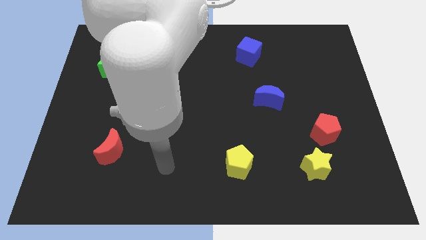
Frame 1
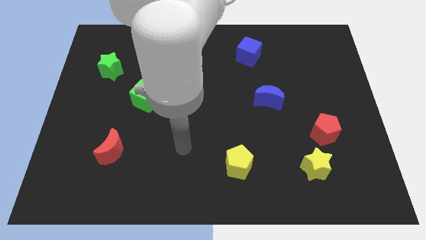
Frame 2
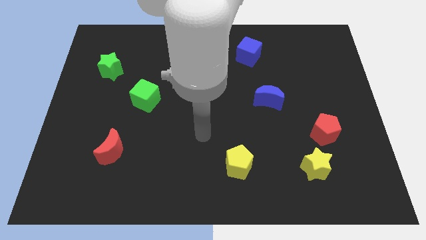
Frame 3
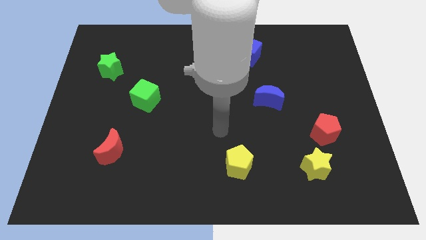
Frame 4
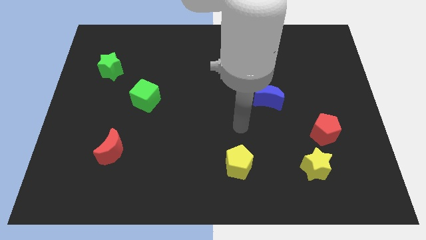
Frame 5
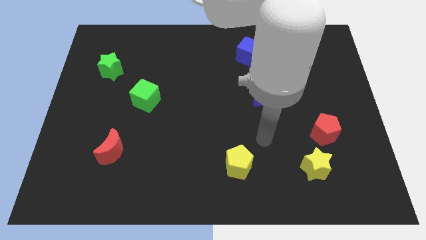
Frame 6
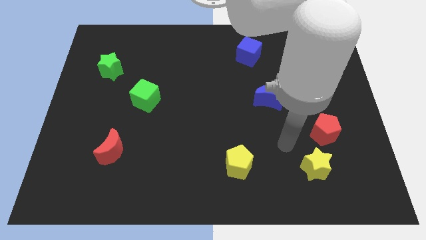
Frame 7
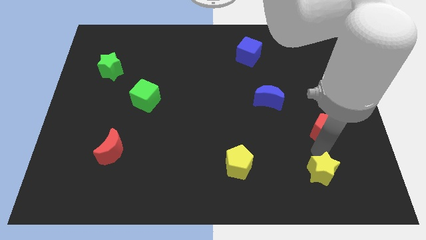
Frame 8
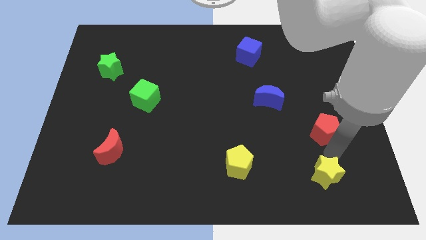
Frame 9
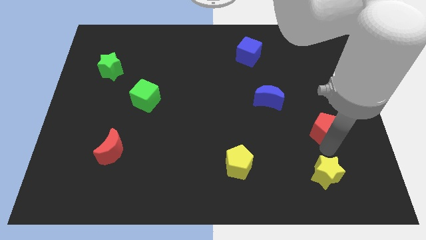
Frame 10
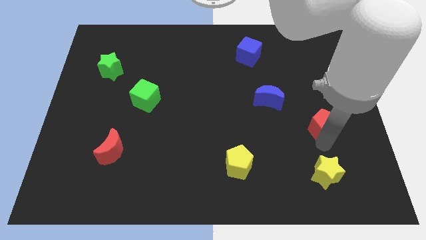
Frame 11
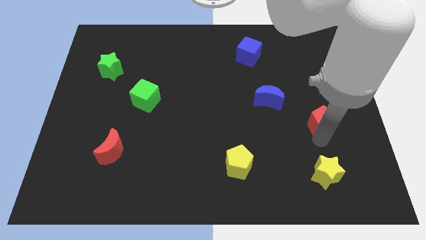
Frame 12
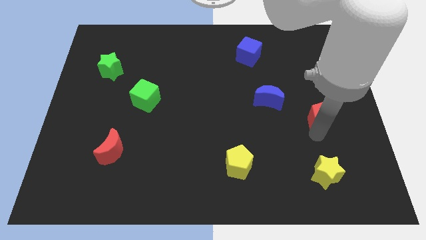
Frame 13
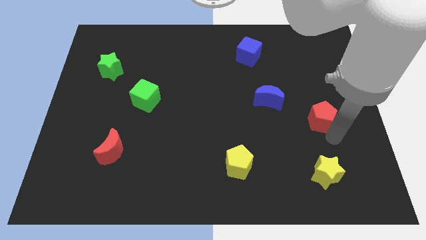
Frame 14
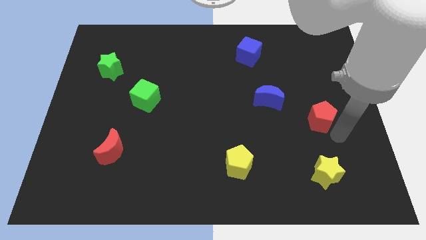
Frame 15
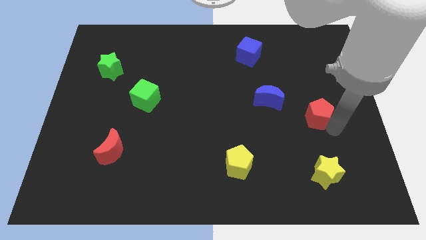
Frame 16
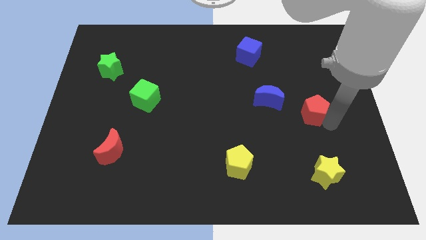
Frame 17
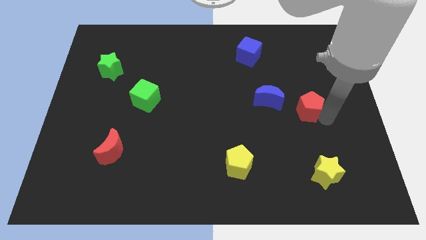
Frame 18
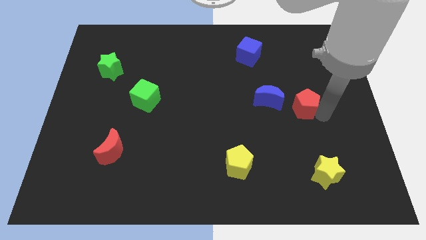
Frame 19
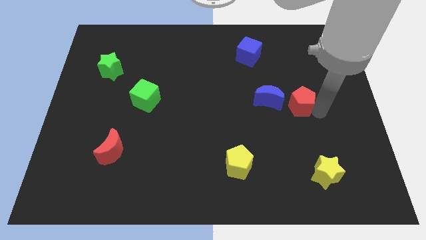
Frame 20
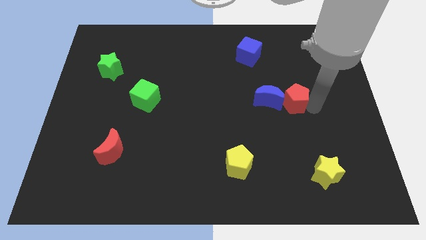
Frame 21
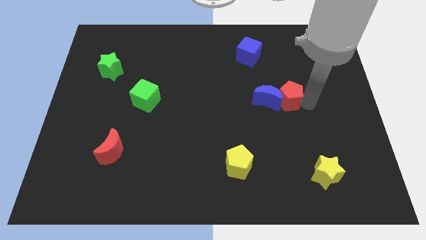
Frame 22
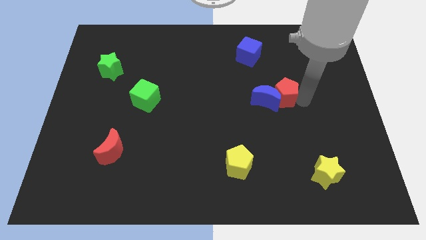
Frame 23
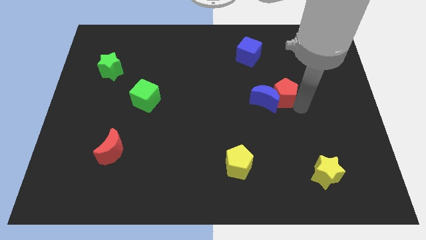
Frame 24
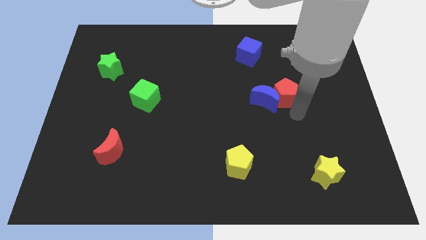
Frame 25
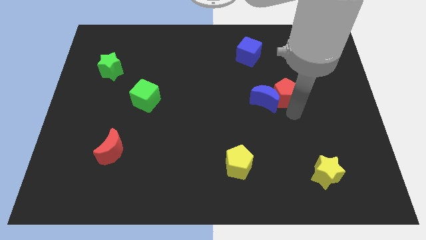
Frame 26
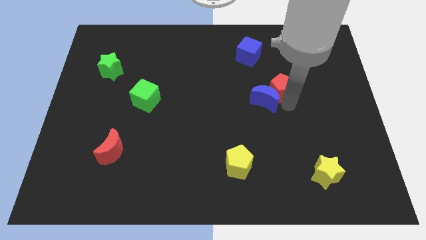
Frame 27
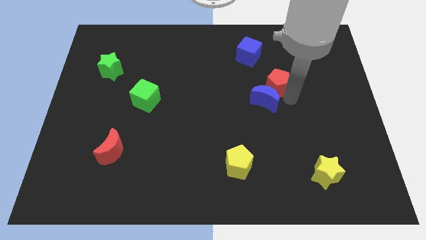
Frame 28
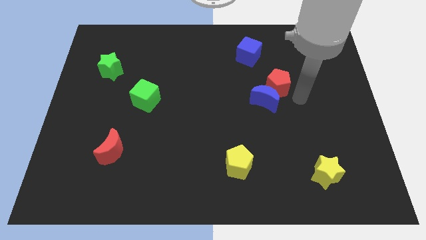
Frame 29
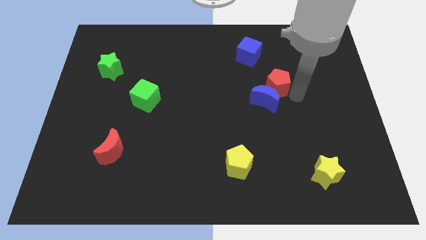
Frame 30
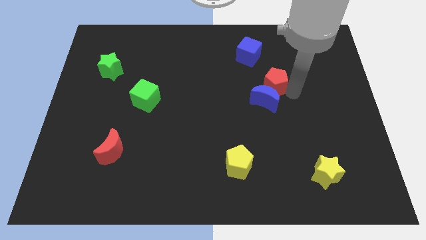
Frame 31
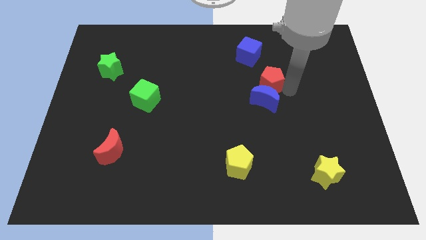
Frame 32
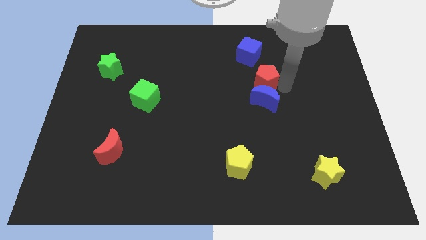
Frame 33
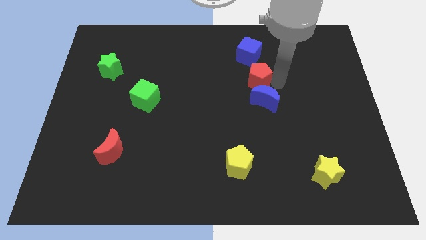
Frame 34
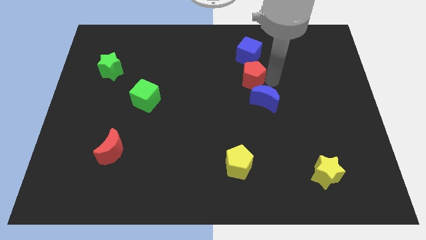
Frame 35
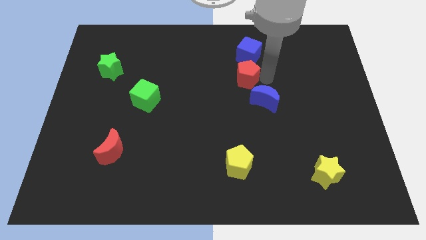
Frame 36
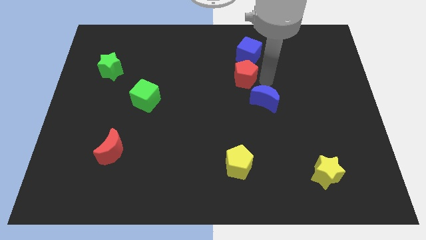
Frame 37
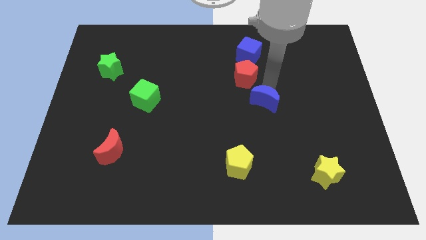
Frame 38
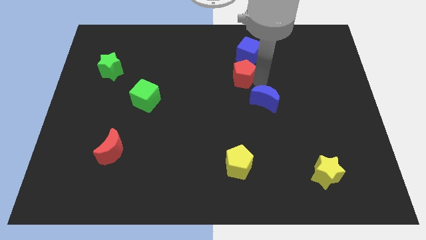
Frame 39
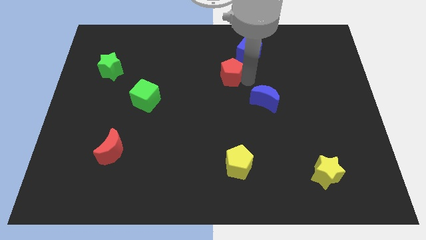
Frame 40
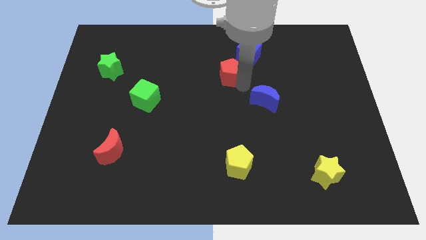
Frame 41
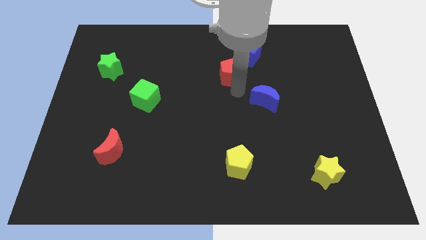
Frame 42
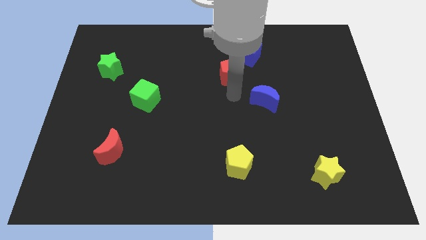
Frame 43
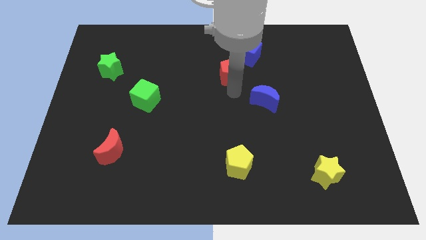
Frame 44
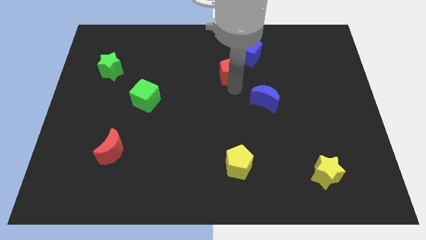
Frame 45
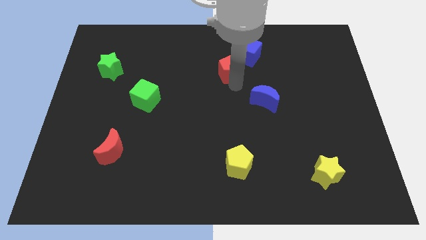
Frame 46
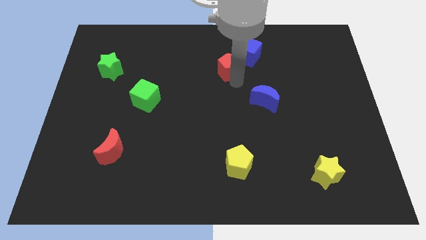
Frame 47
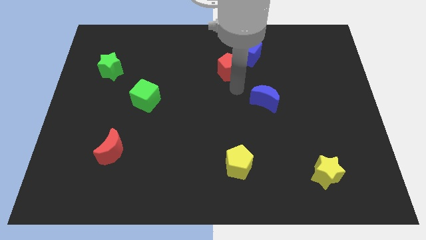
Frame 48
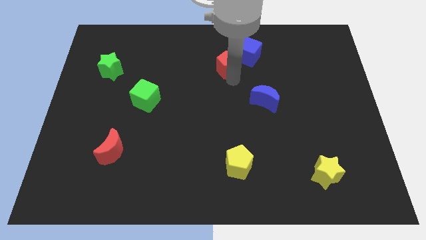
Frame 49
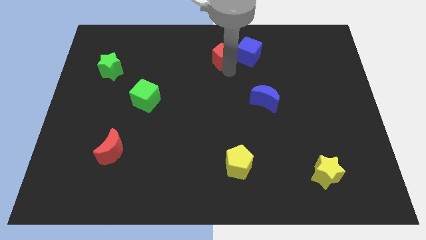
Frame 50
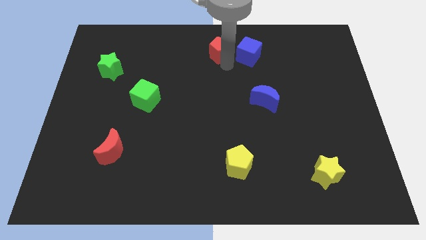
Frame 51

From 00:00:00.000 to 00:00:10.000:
put the red pentagon to the top side

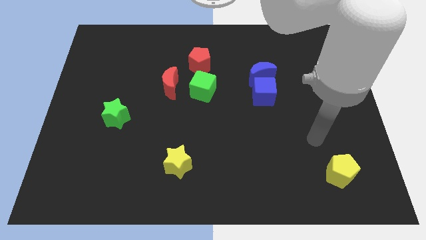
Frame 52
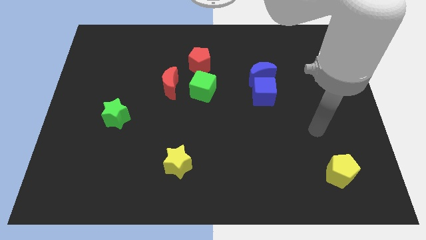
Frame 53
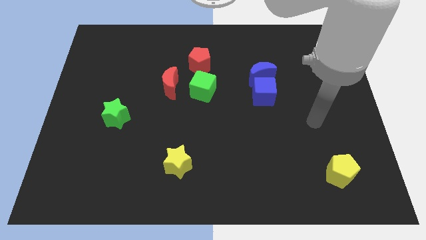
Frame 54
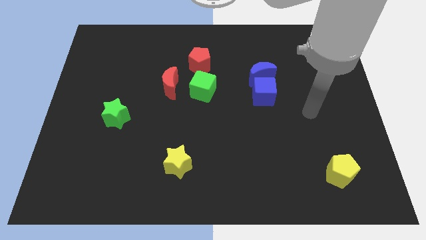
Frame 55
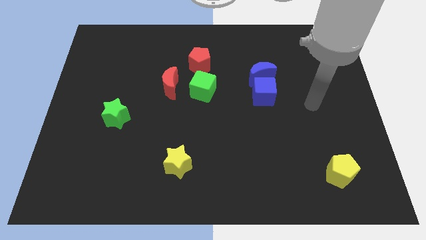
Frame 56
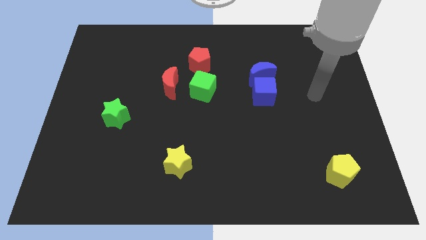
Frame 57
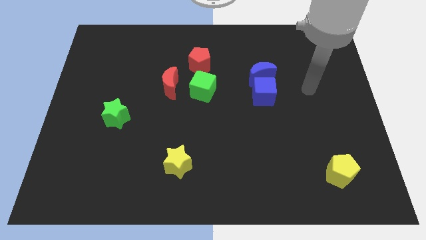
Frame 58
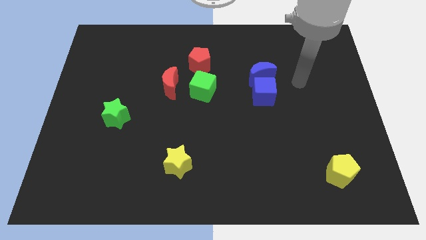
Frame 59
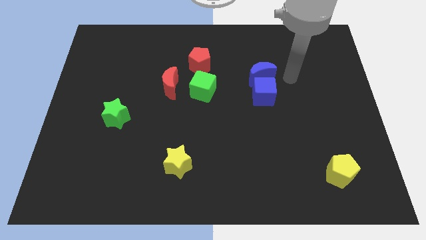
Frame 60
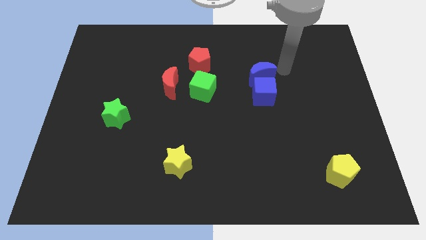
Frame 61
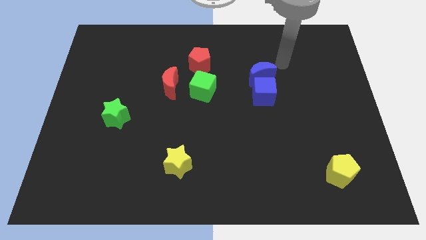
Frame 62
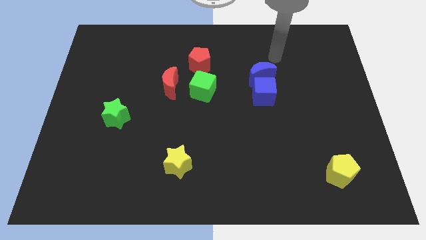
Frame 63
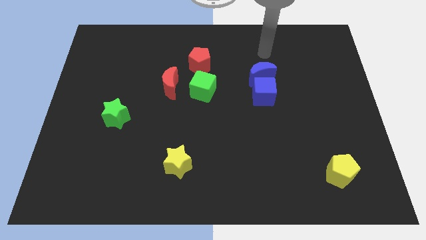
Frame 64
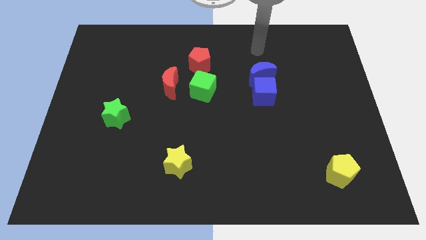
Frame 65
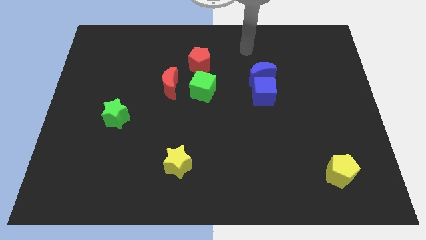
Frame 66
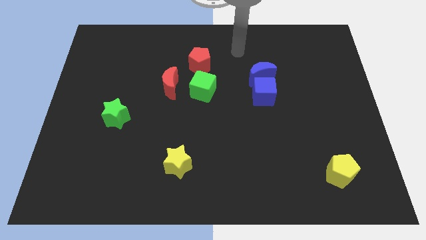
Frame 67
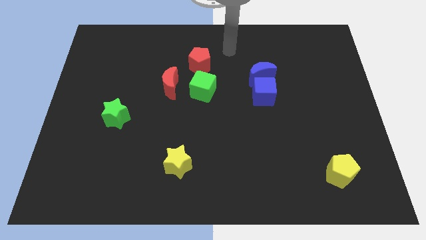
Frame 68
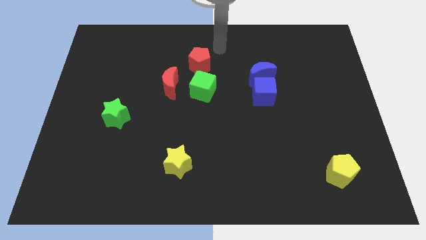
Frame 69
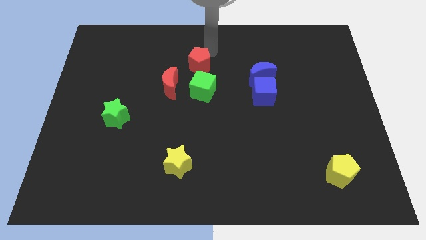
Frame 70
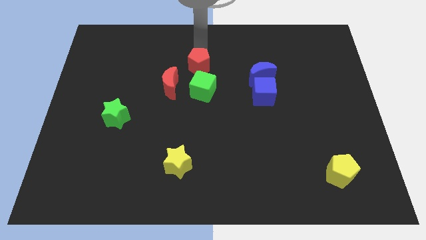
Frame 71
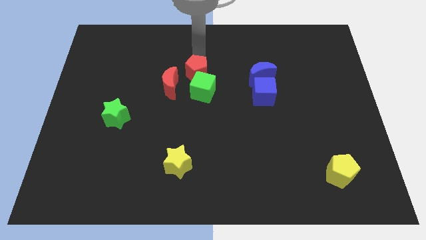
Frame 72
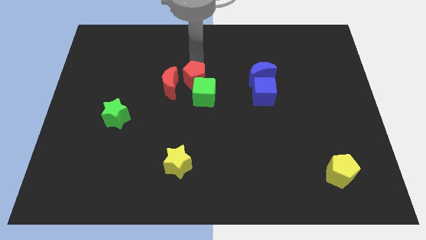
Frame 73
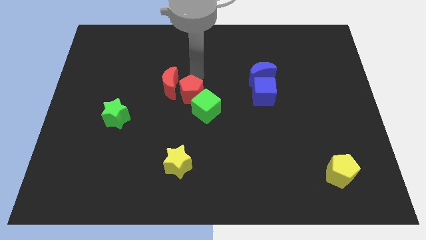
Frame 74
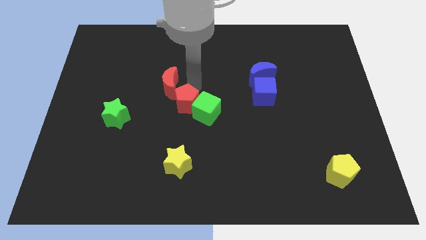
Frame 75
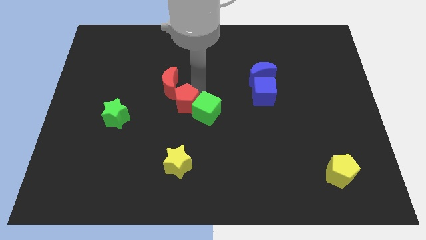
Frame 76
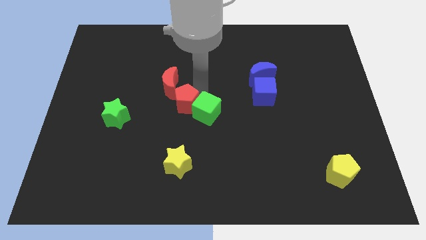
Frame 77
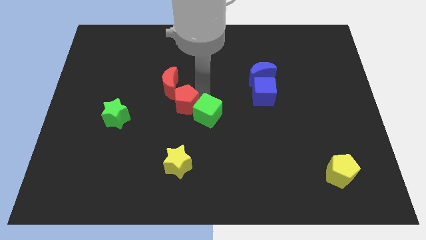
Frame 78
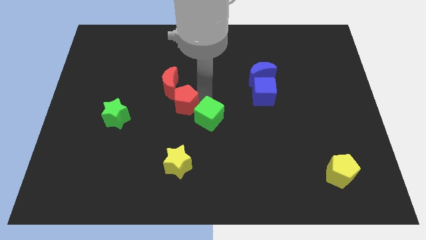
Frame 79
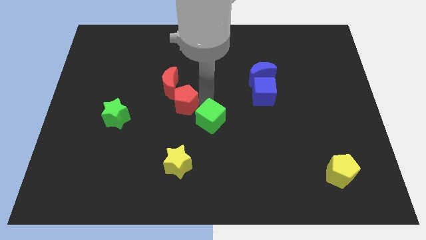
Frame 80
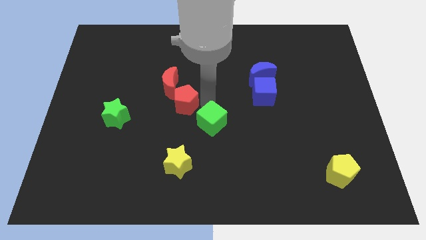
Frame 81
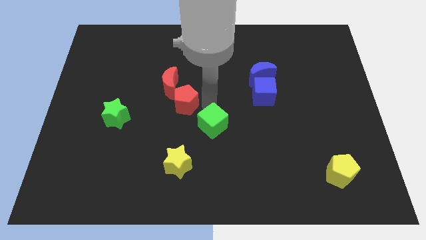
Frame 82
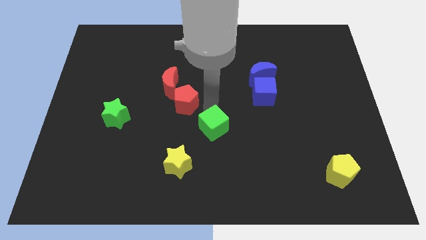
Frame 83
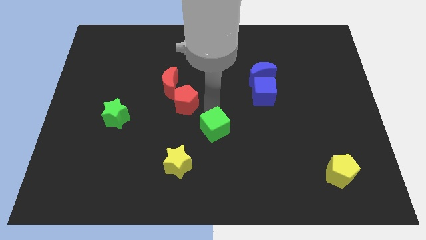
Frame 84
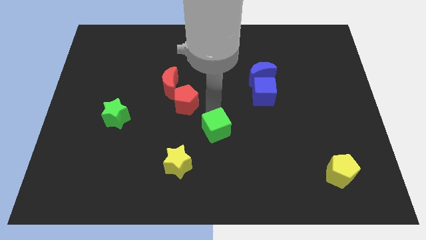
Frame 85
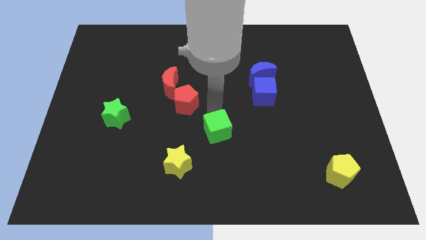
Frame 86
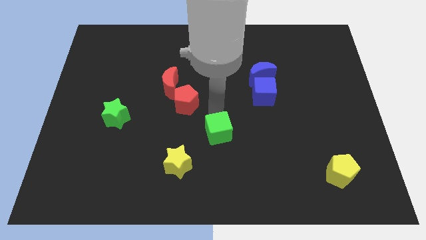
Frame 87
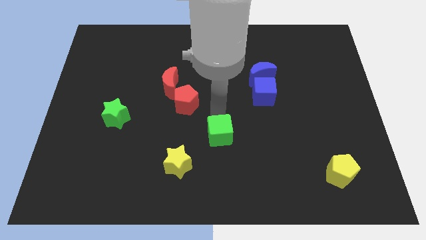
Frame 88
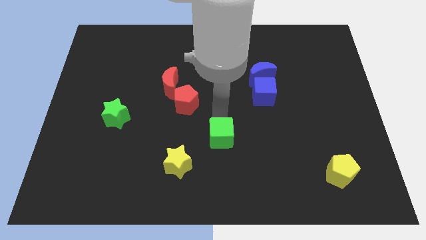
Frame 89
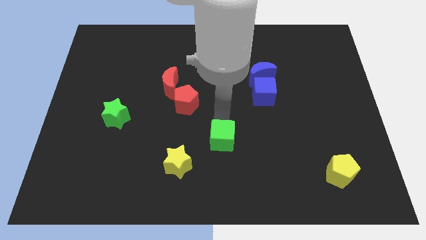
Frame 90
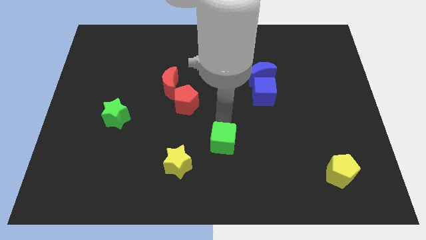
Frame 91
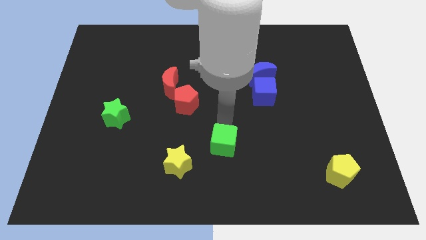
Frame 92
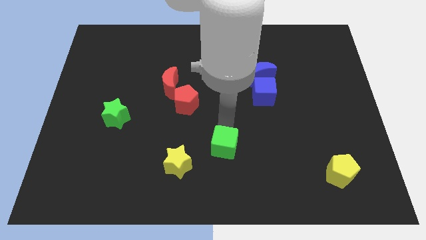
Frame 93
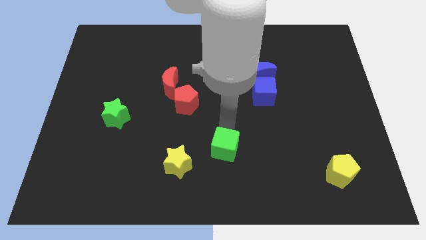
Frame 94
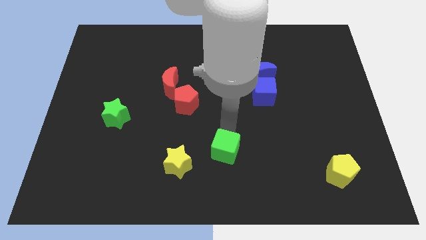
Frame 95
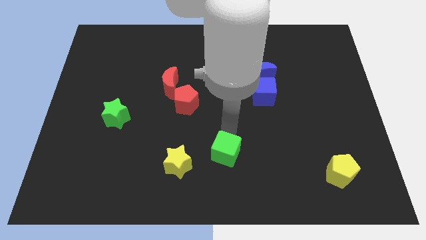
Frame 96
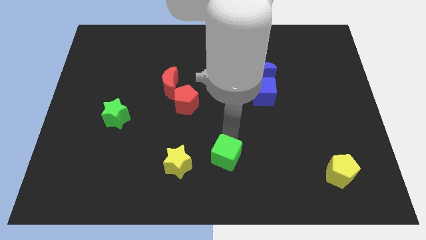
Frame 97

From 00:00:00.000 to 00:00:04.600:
slide the green cube to the bottom side
